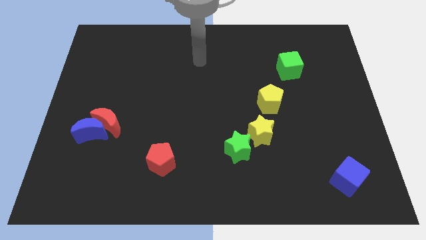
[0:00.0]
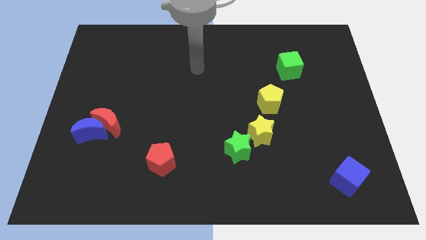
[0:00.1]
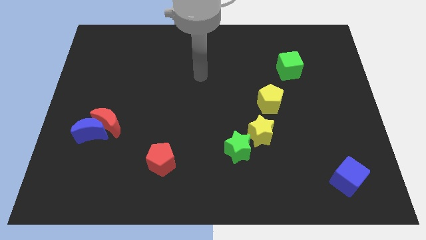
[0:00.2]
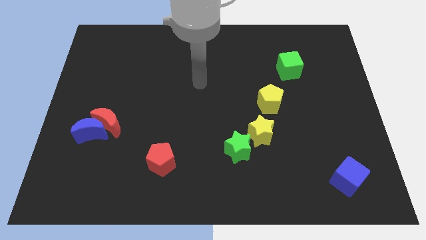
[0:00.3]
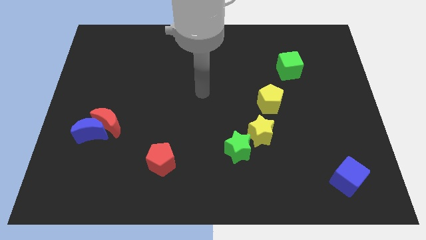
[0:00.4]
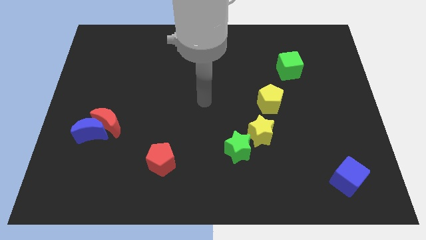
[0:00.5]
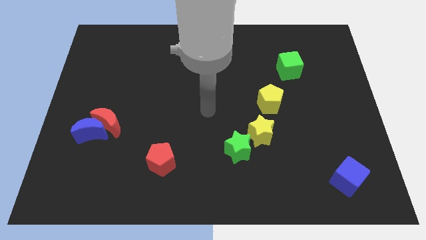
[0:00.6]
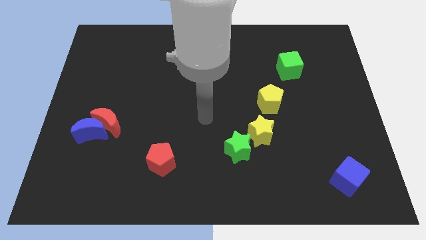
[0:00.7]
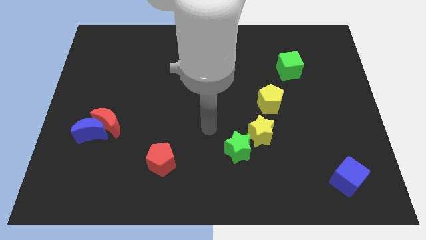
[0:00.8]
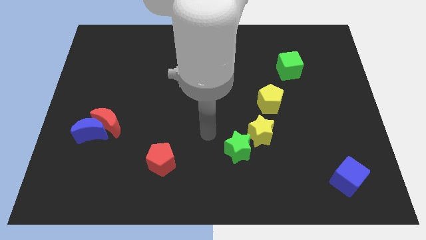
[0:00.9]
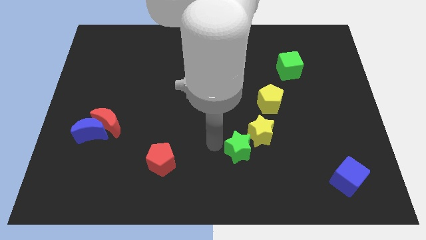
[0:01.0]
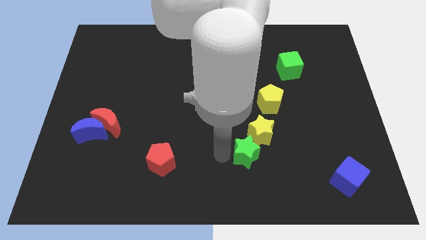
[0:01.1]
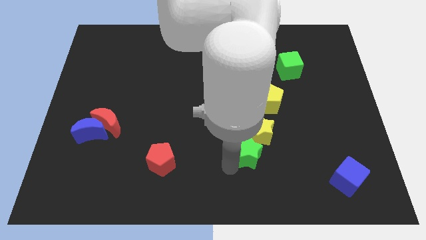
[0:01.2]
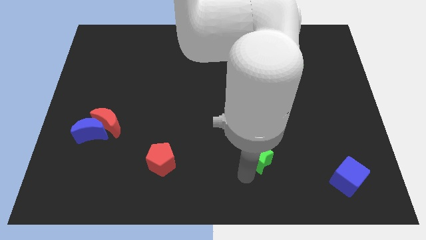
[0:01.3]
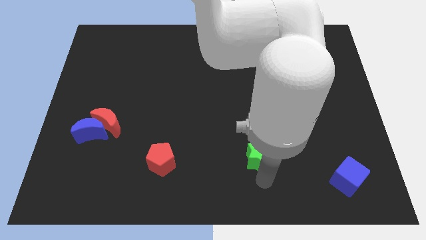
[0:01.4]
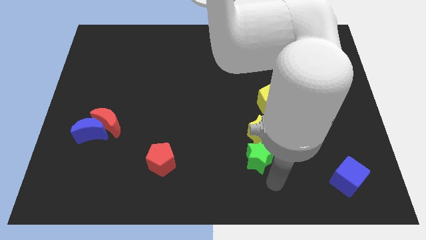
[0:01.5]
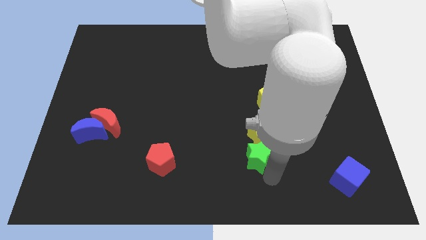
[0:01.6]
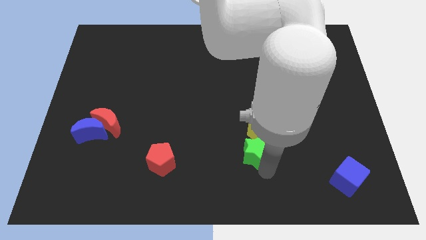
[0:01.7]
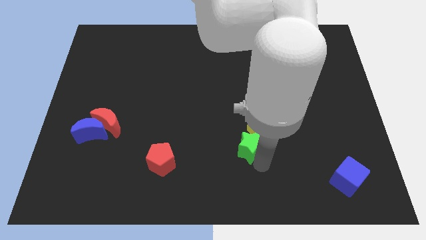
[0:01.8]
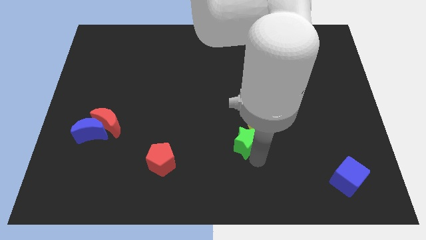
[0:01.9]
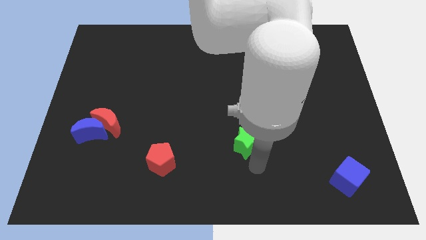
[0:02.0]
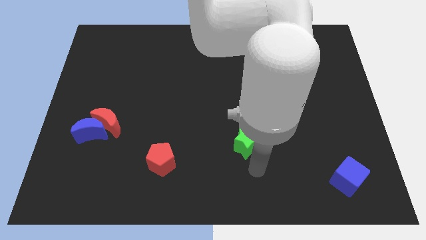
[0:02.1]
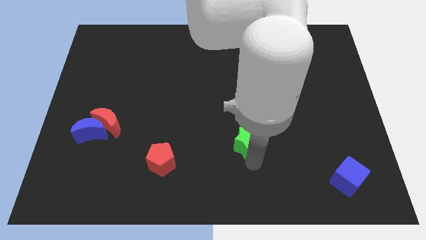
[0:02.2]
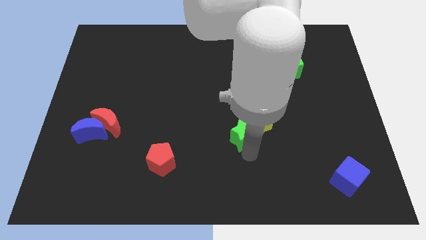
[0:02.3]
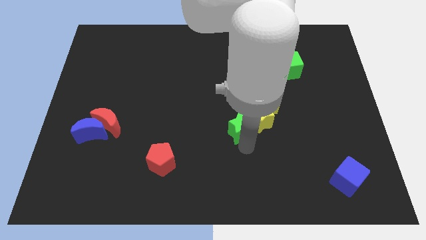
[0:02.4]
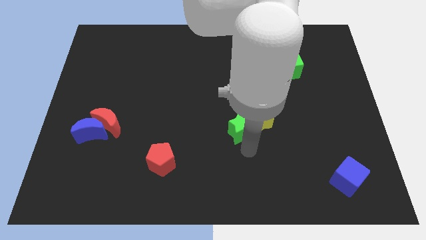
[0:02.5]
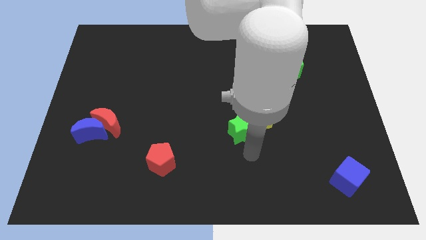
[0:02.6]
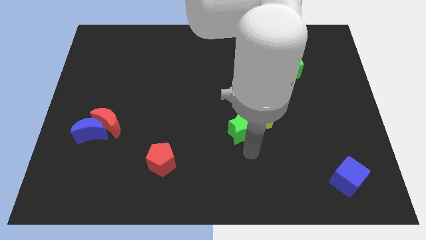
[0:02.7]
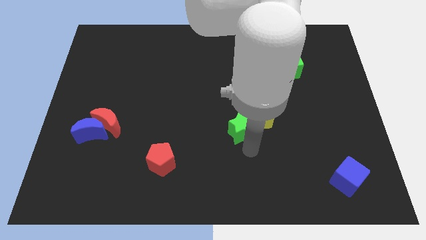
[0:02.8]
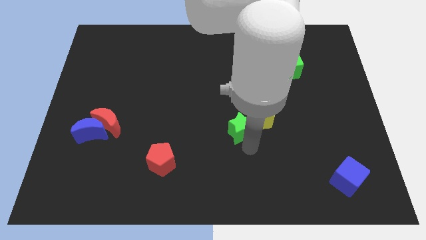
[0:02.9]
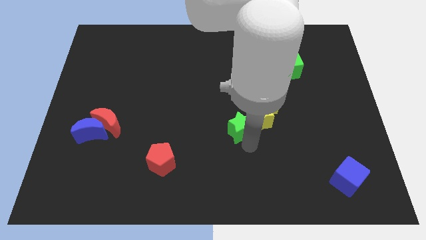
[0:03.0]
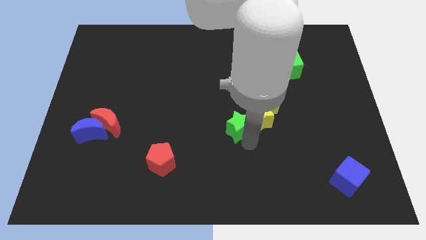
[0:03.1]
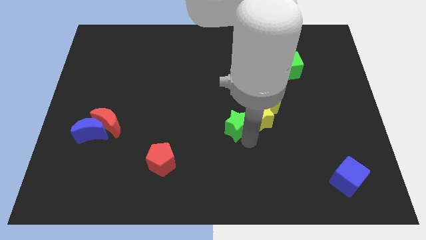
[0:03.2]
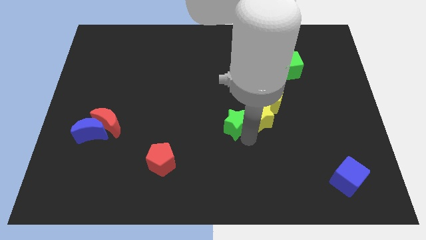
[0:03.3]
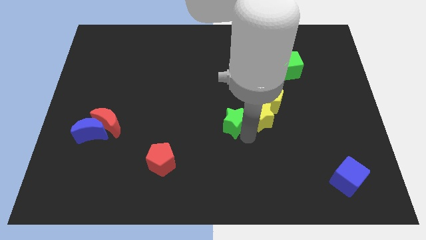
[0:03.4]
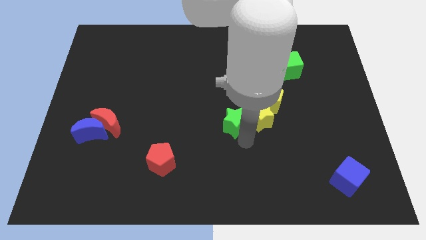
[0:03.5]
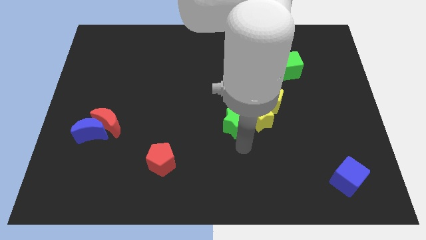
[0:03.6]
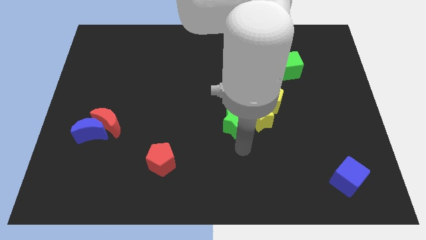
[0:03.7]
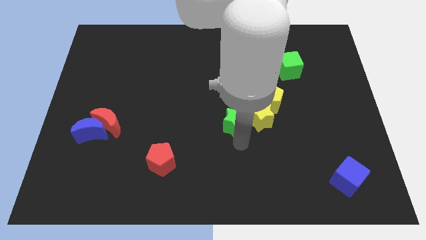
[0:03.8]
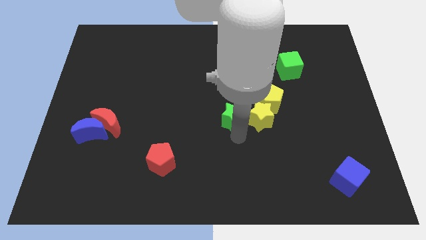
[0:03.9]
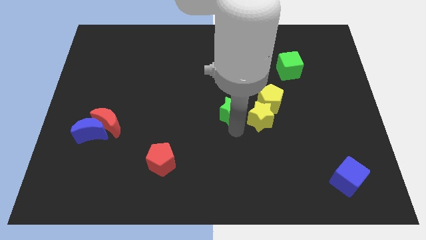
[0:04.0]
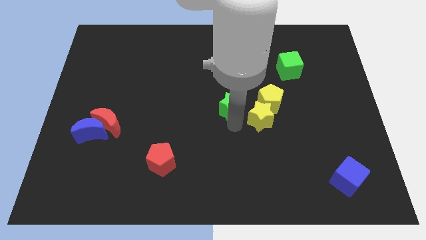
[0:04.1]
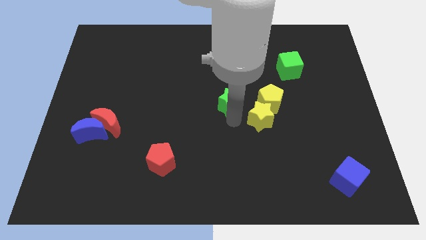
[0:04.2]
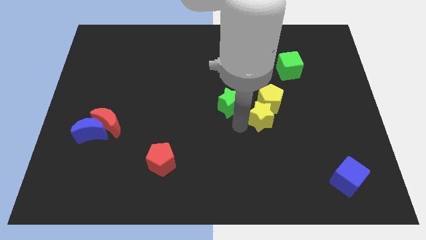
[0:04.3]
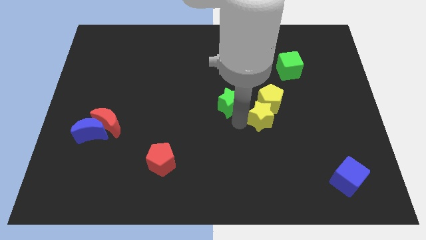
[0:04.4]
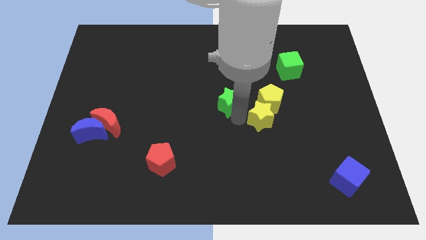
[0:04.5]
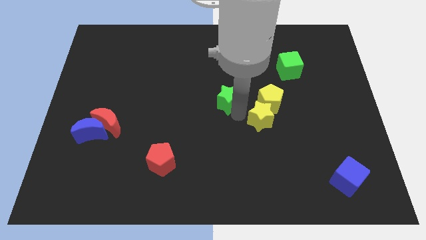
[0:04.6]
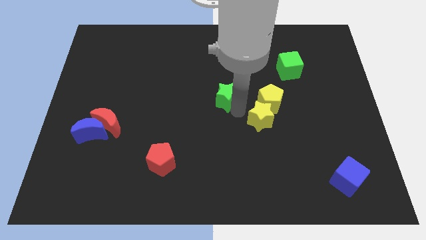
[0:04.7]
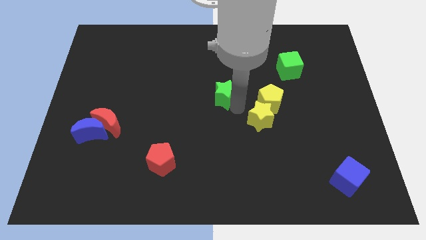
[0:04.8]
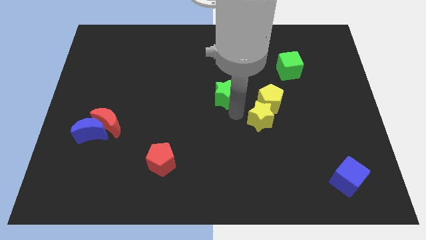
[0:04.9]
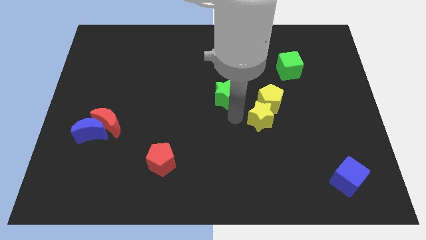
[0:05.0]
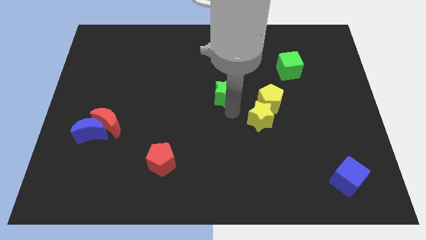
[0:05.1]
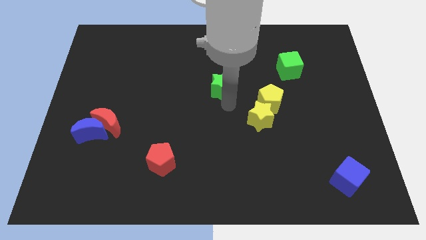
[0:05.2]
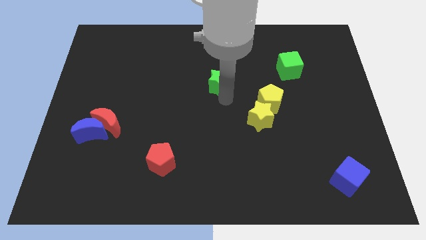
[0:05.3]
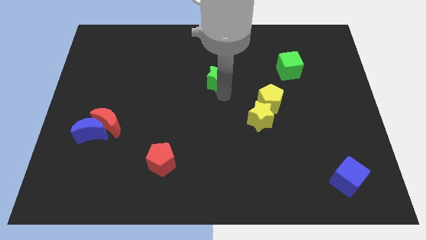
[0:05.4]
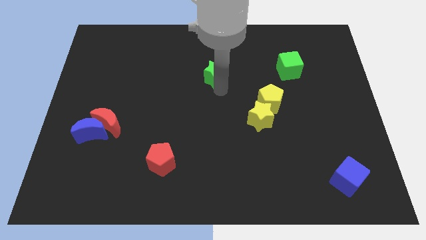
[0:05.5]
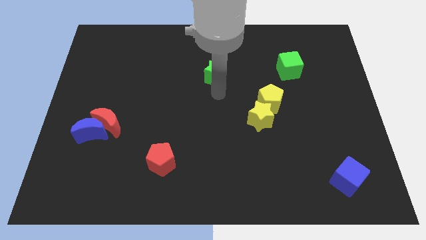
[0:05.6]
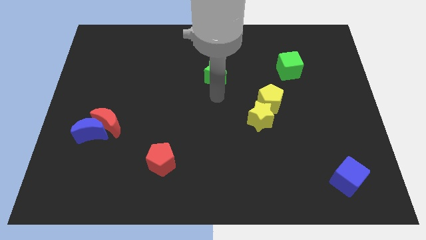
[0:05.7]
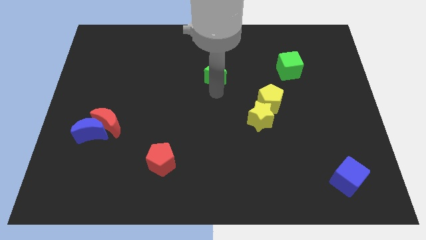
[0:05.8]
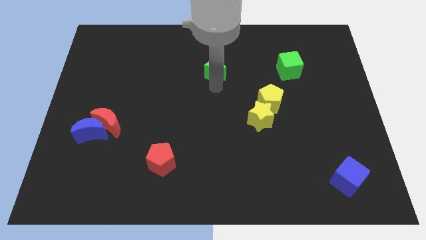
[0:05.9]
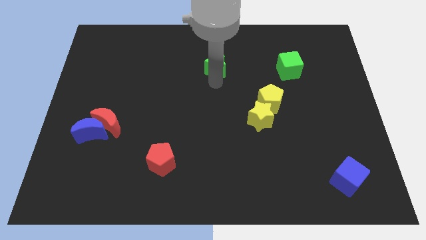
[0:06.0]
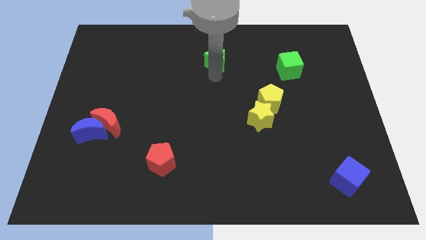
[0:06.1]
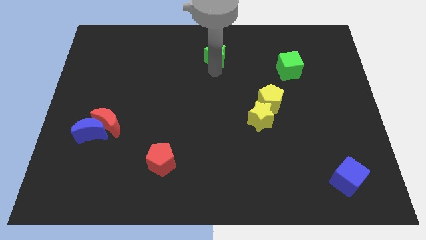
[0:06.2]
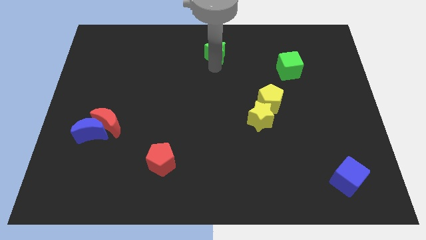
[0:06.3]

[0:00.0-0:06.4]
push the green star to the top
